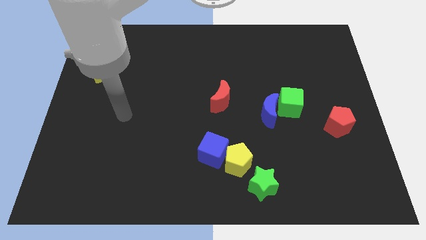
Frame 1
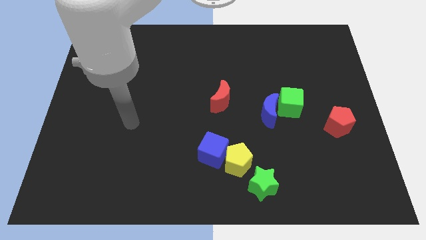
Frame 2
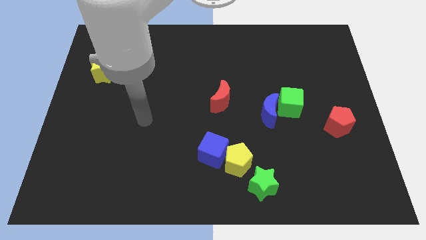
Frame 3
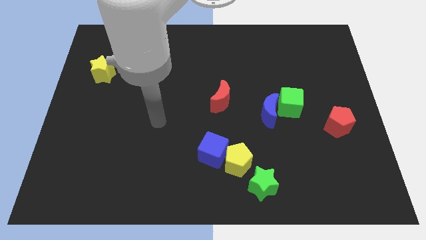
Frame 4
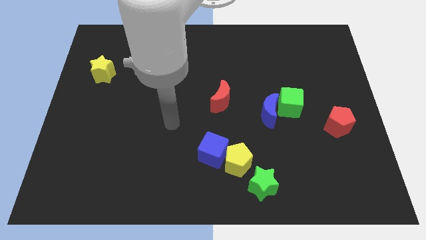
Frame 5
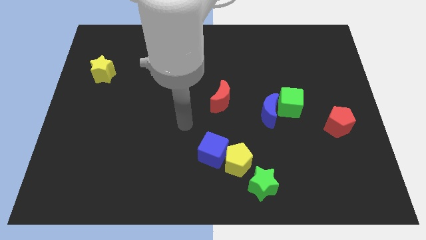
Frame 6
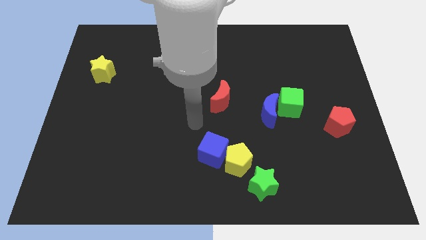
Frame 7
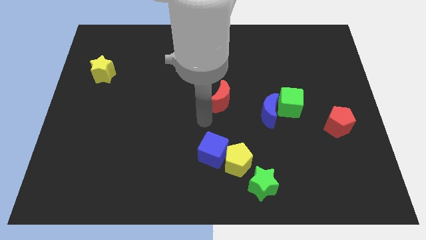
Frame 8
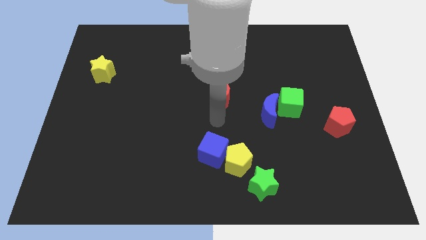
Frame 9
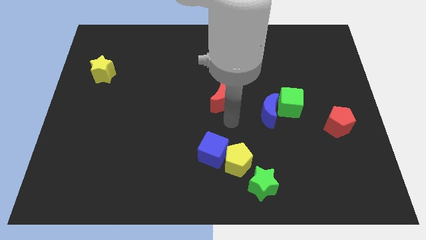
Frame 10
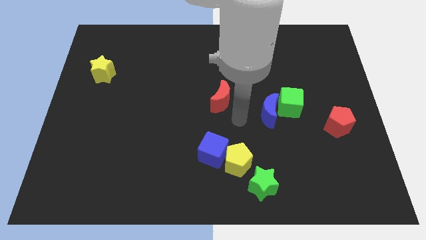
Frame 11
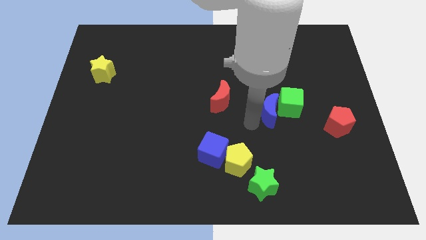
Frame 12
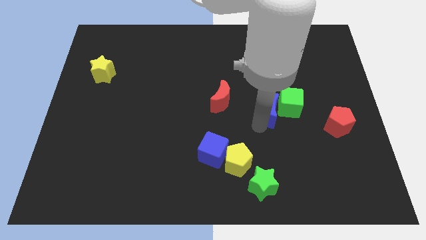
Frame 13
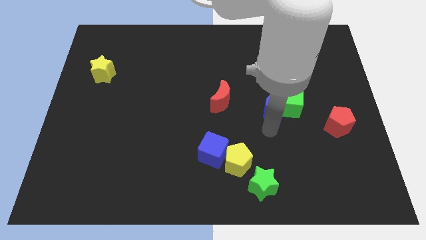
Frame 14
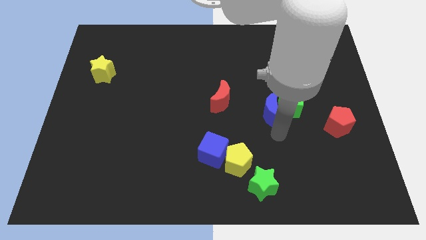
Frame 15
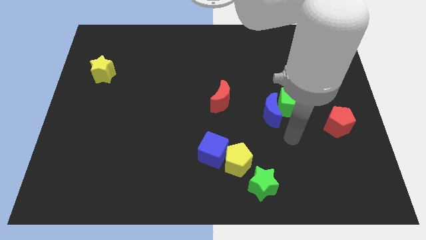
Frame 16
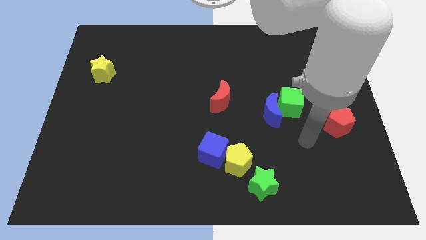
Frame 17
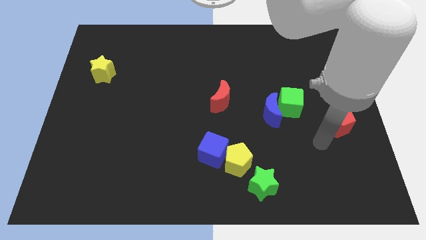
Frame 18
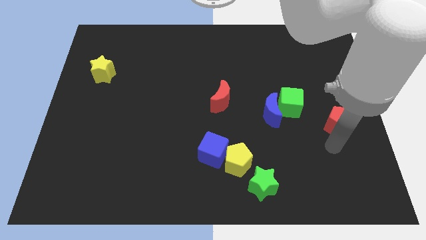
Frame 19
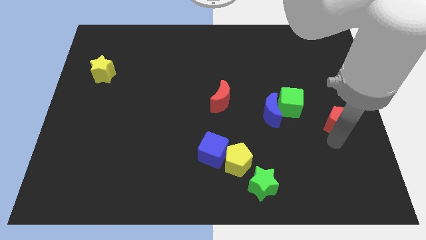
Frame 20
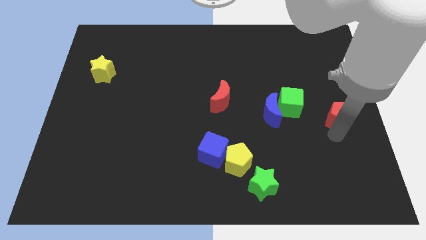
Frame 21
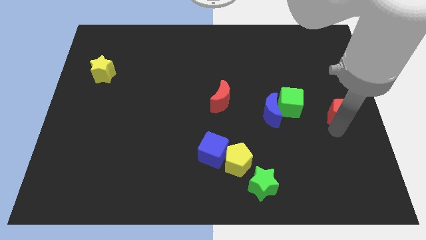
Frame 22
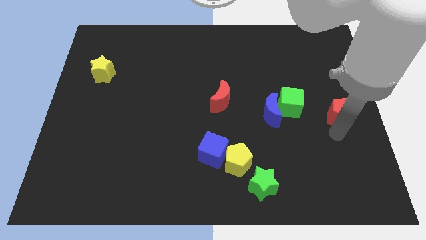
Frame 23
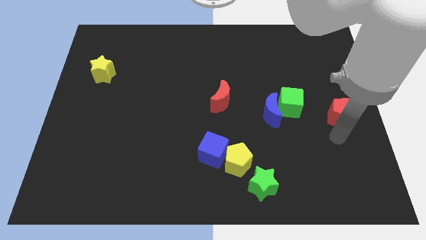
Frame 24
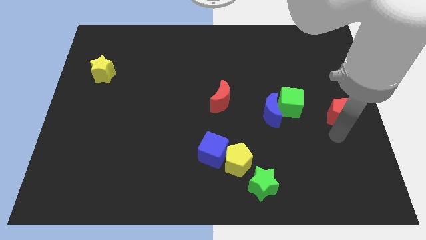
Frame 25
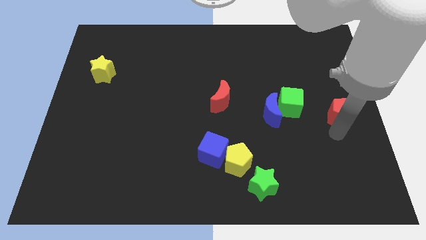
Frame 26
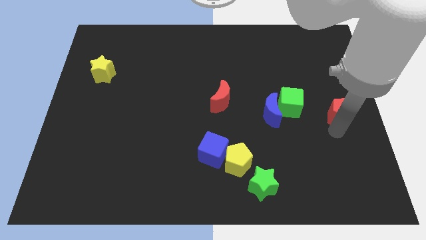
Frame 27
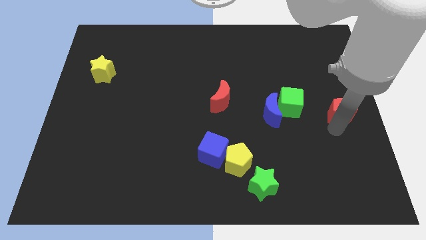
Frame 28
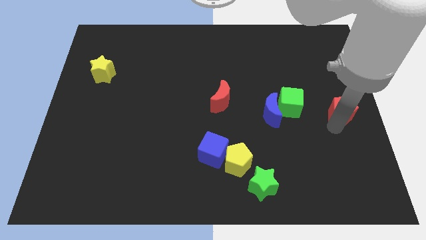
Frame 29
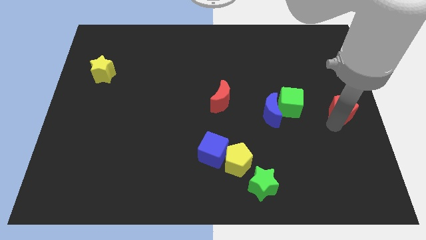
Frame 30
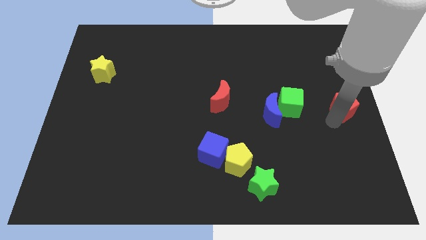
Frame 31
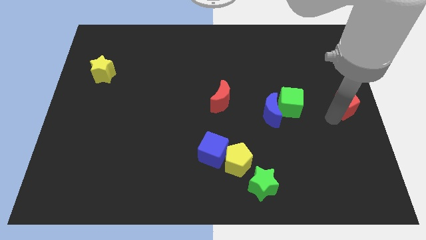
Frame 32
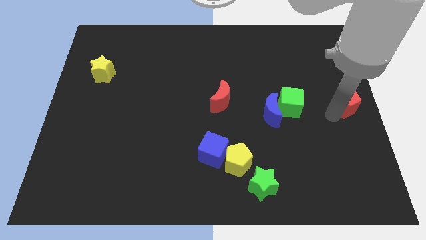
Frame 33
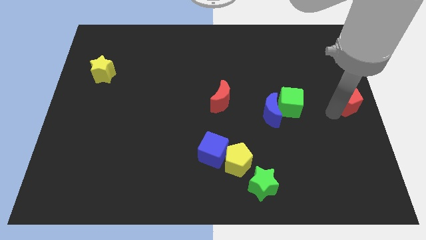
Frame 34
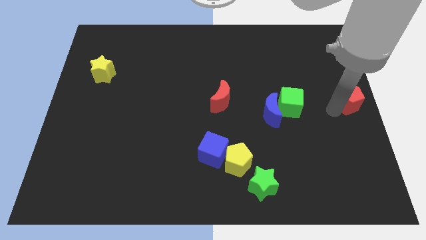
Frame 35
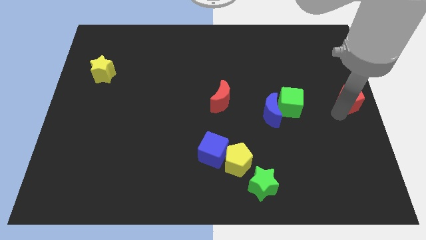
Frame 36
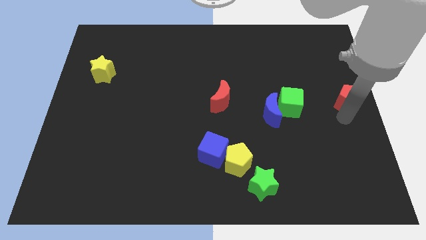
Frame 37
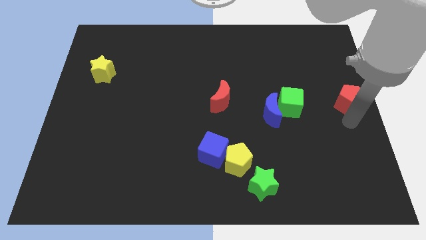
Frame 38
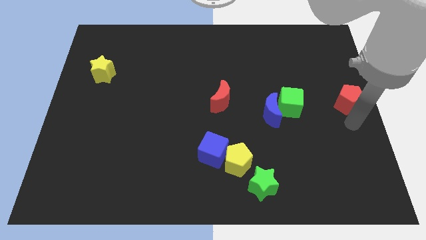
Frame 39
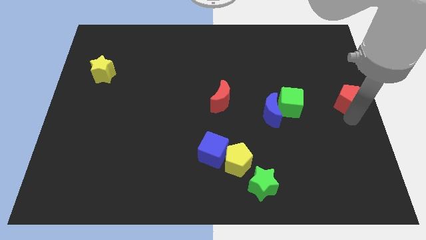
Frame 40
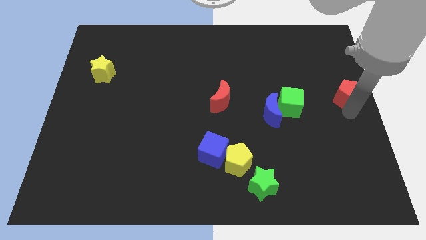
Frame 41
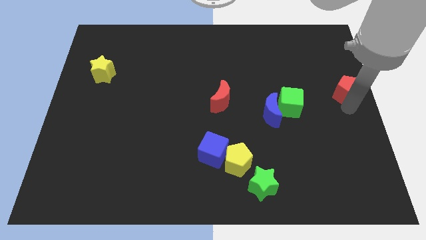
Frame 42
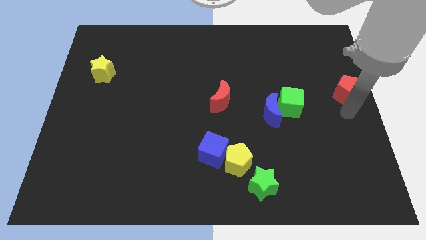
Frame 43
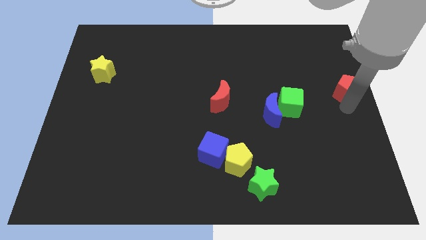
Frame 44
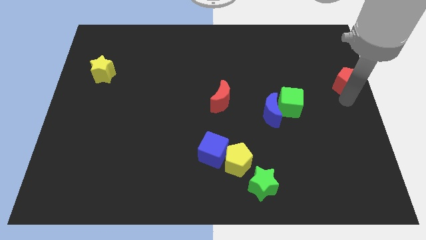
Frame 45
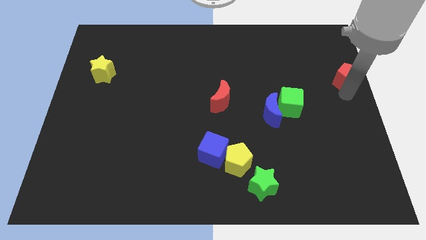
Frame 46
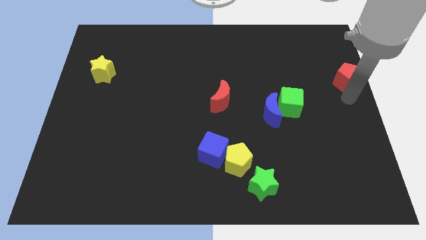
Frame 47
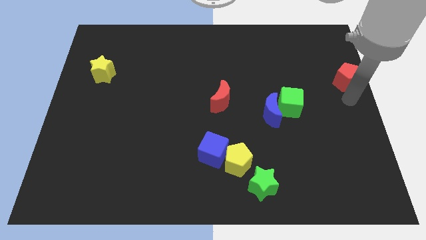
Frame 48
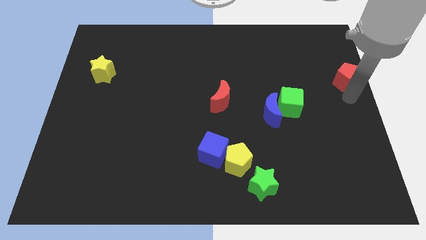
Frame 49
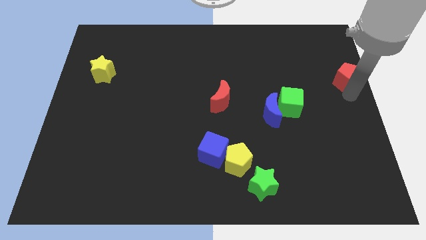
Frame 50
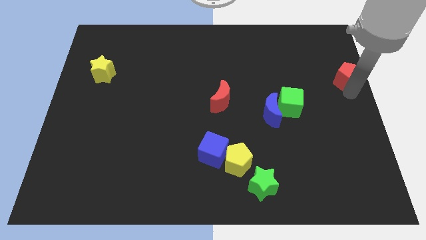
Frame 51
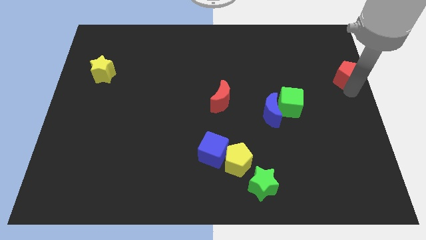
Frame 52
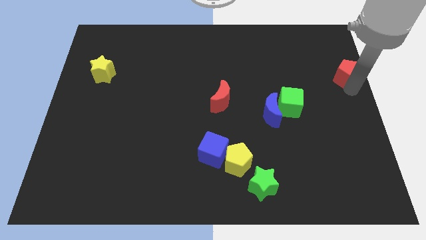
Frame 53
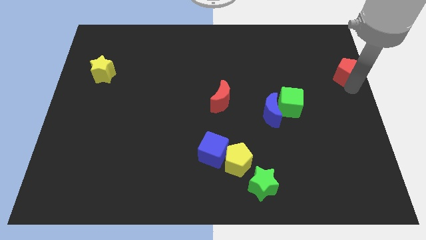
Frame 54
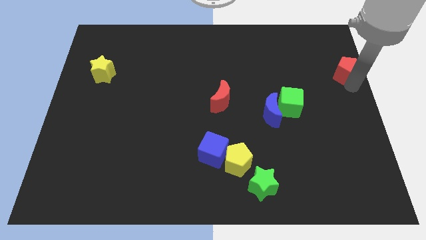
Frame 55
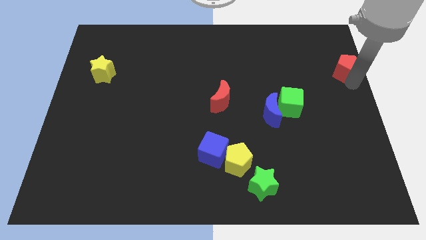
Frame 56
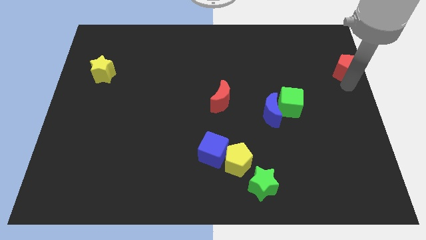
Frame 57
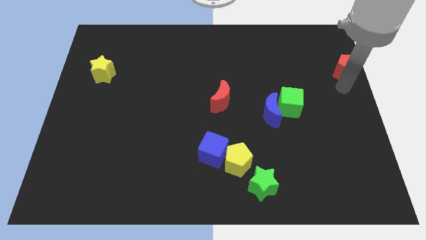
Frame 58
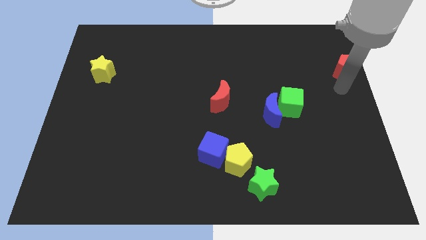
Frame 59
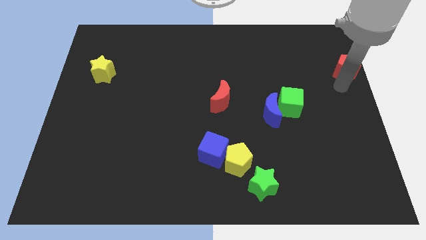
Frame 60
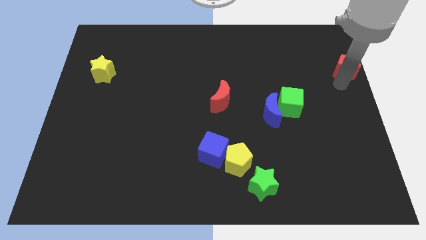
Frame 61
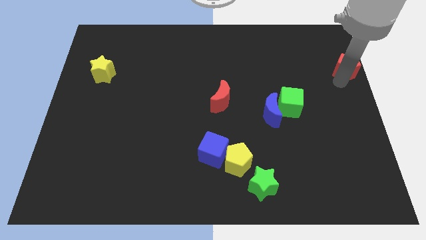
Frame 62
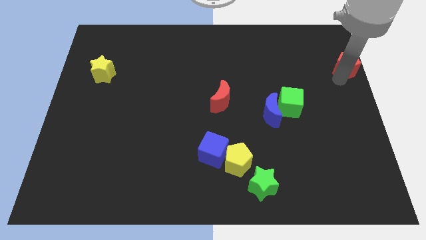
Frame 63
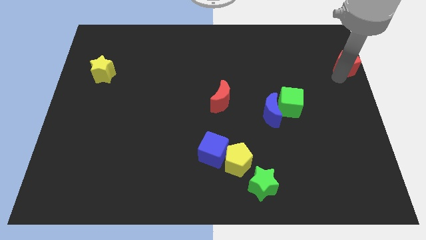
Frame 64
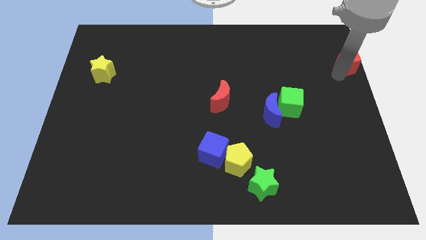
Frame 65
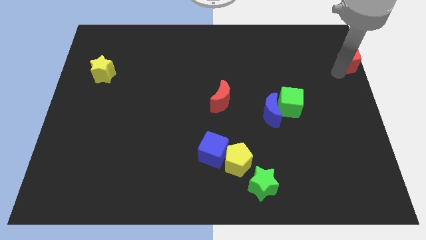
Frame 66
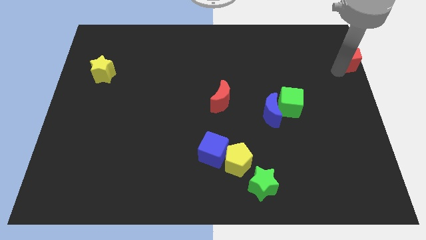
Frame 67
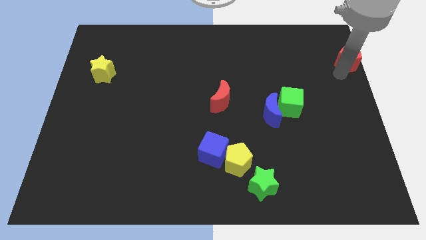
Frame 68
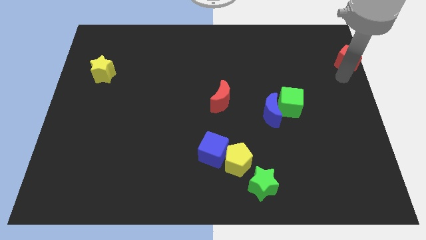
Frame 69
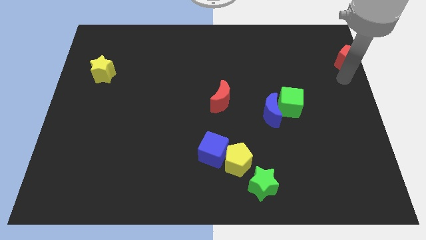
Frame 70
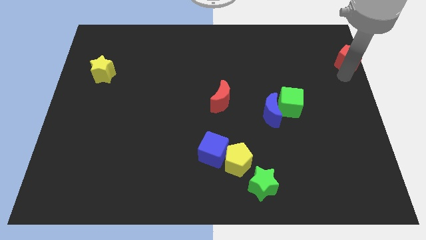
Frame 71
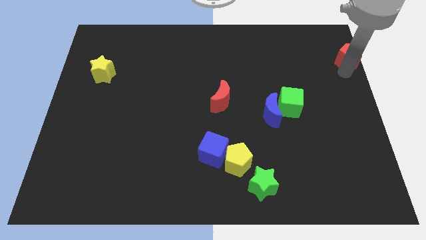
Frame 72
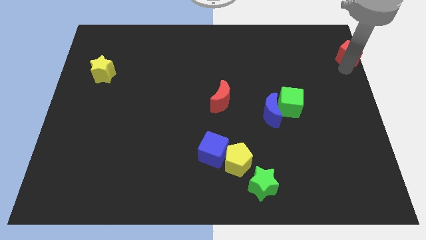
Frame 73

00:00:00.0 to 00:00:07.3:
push the red pentagon to the top right corner
